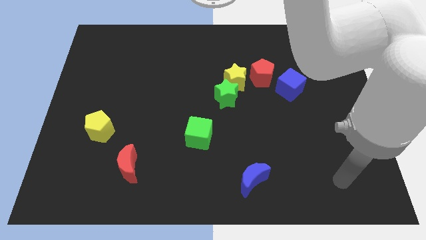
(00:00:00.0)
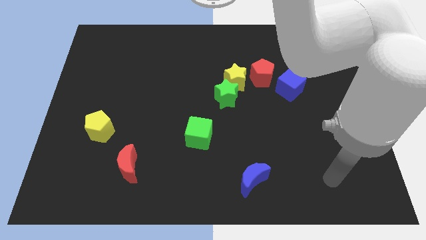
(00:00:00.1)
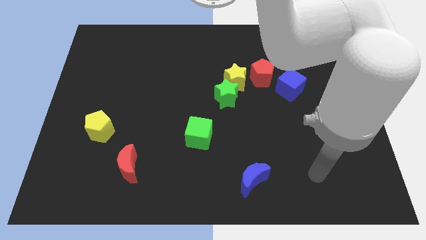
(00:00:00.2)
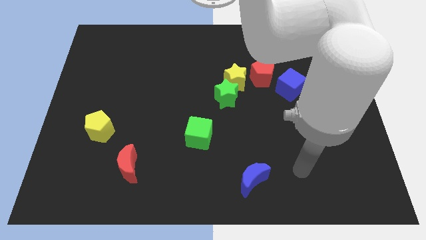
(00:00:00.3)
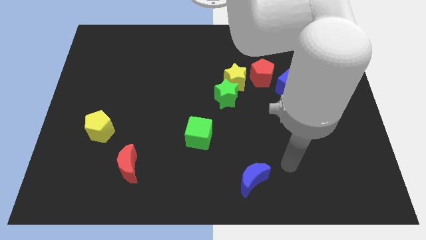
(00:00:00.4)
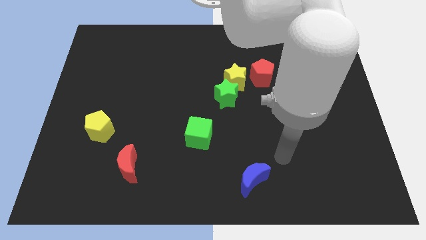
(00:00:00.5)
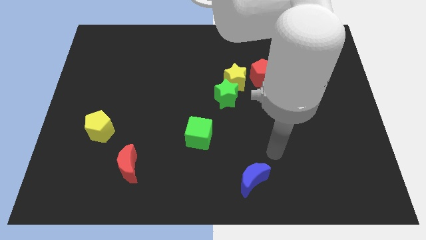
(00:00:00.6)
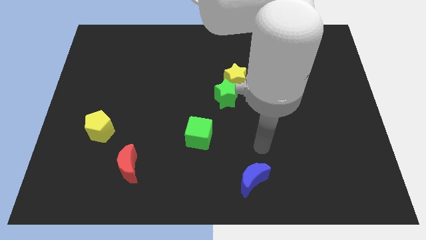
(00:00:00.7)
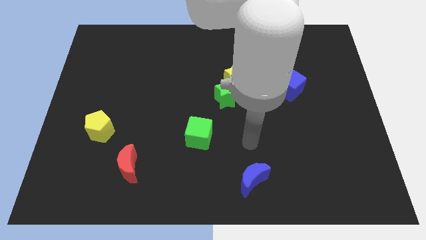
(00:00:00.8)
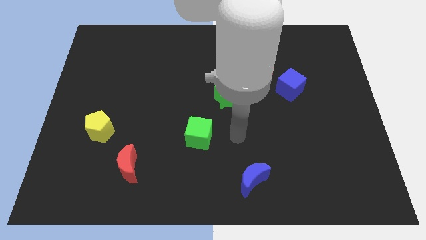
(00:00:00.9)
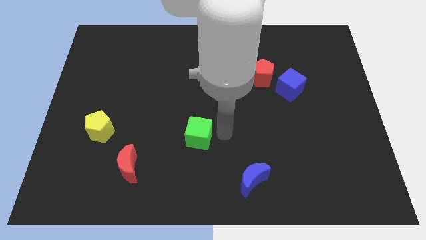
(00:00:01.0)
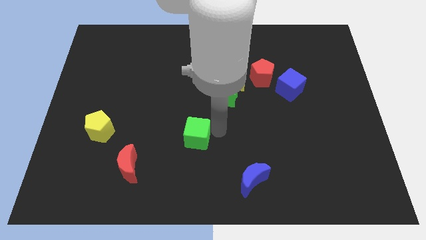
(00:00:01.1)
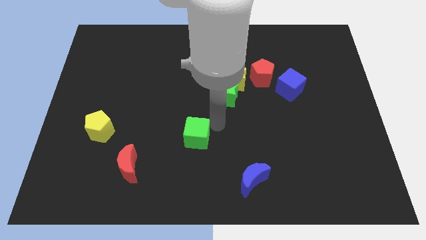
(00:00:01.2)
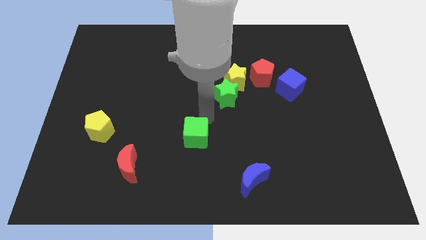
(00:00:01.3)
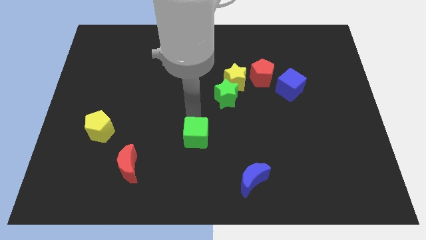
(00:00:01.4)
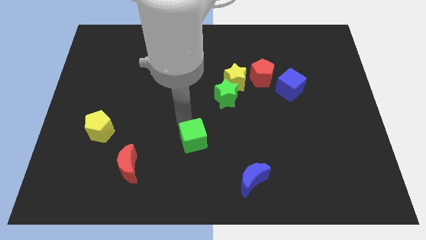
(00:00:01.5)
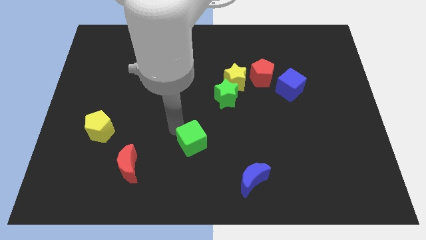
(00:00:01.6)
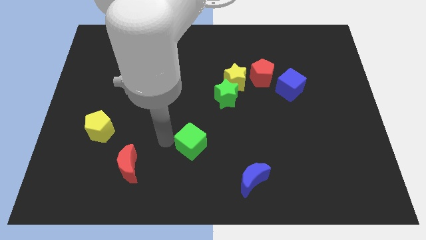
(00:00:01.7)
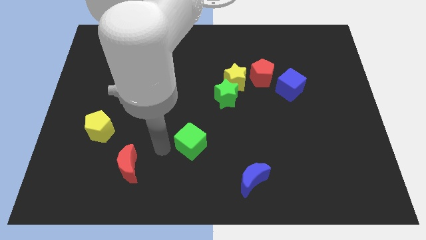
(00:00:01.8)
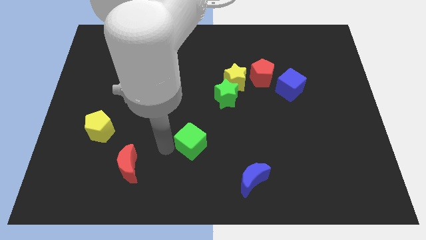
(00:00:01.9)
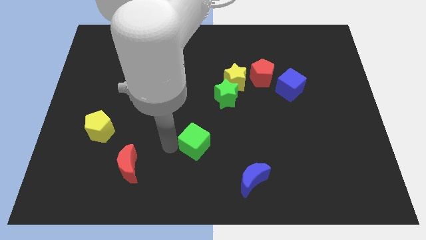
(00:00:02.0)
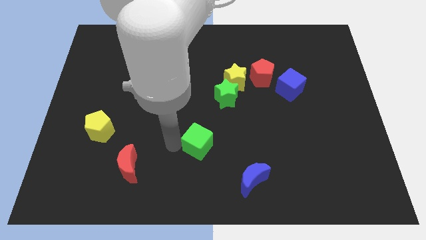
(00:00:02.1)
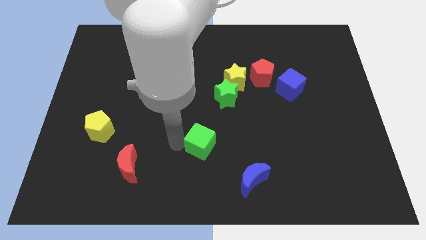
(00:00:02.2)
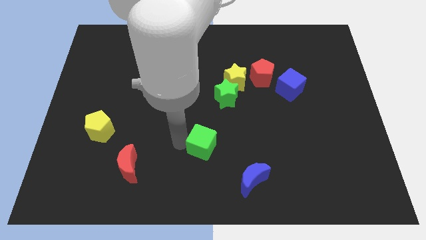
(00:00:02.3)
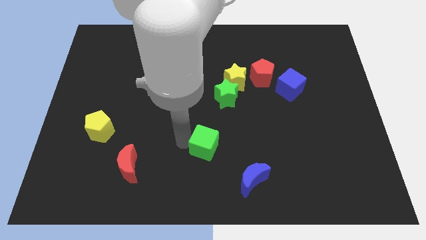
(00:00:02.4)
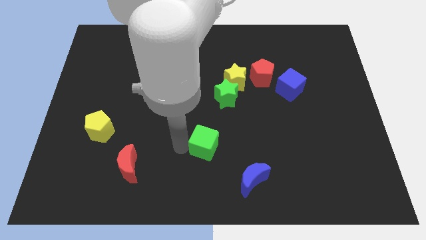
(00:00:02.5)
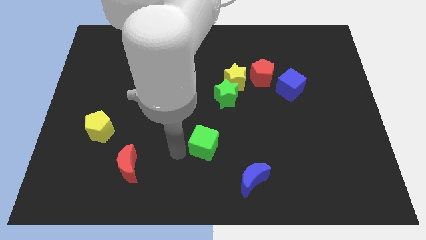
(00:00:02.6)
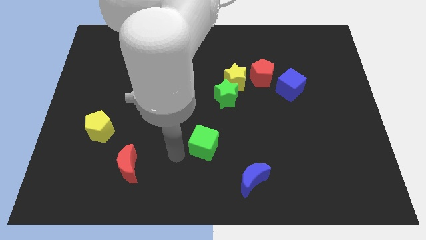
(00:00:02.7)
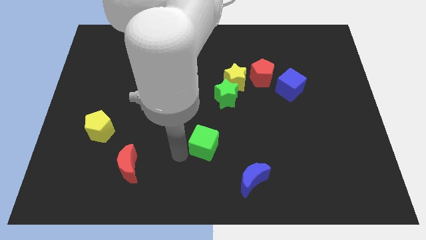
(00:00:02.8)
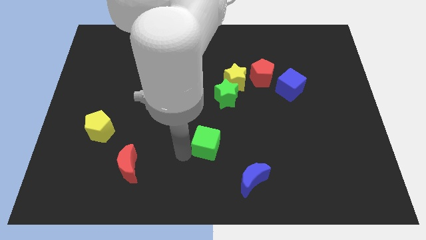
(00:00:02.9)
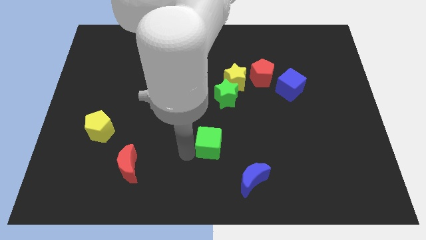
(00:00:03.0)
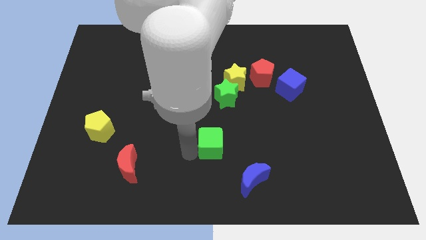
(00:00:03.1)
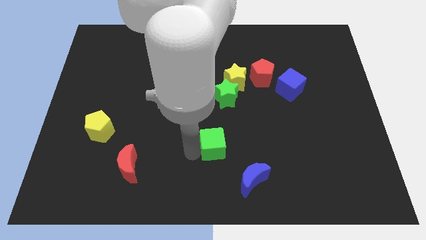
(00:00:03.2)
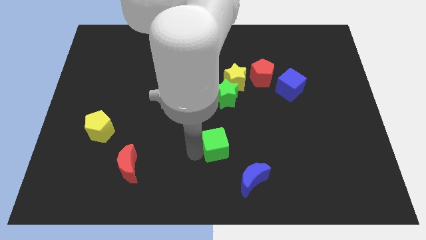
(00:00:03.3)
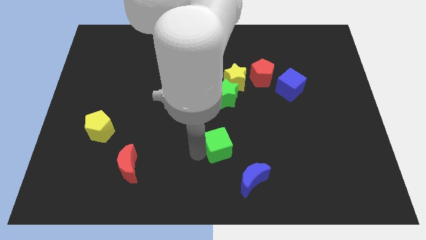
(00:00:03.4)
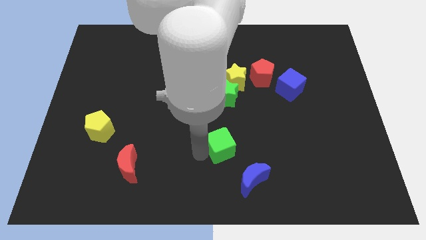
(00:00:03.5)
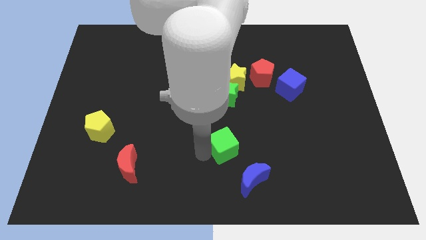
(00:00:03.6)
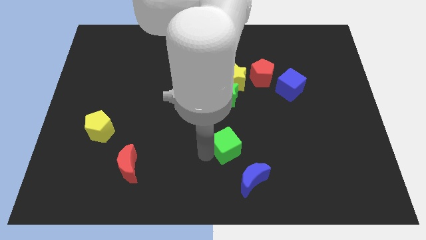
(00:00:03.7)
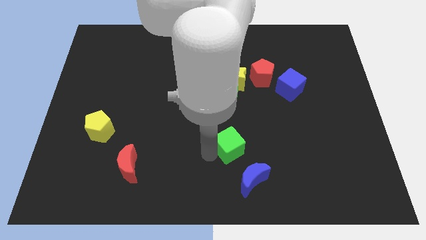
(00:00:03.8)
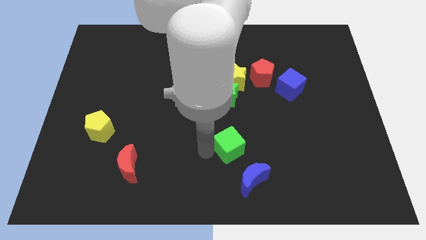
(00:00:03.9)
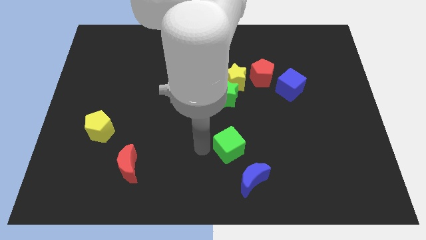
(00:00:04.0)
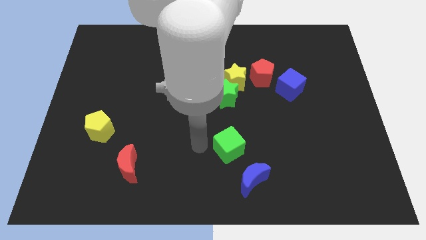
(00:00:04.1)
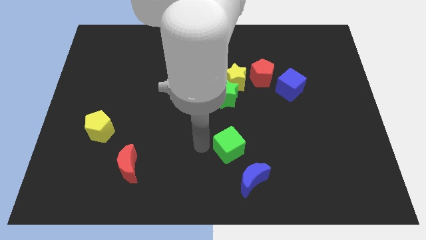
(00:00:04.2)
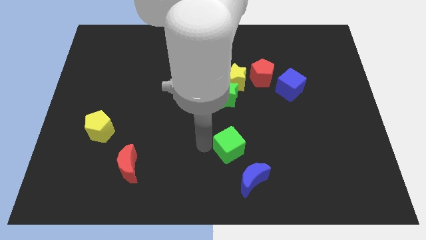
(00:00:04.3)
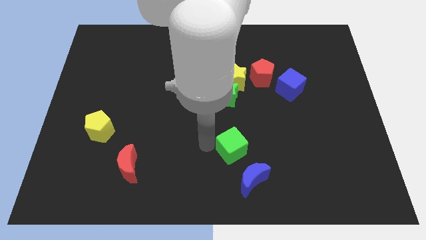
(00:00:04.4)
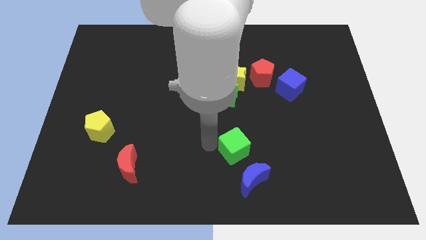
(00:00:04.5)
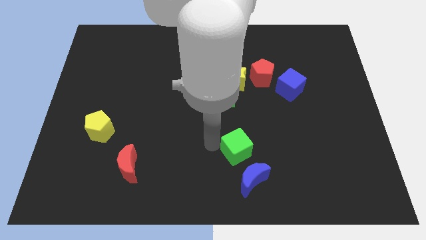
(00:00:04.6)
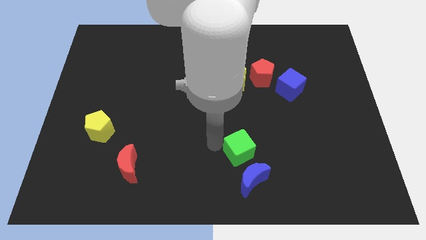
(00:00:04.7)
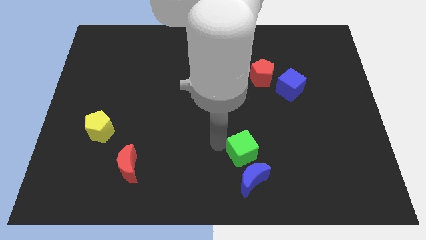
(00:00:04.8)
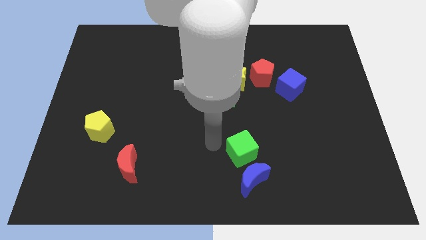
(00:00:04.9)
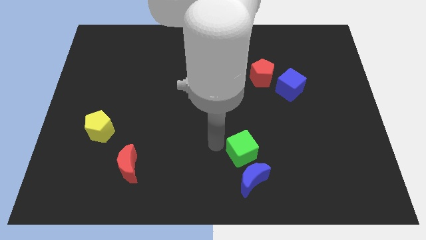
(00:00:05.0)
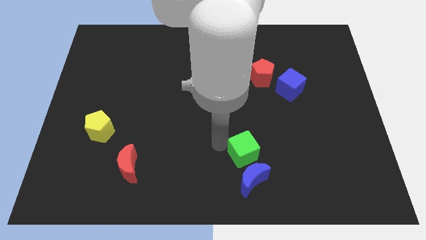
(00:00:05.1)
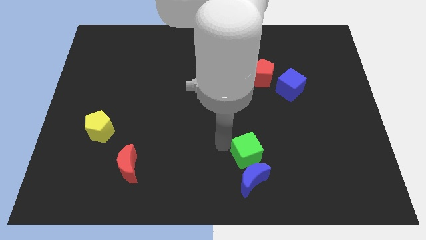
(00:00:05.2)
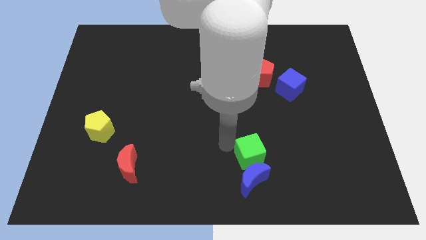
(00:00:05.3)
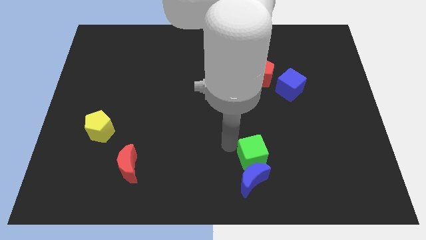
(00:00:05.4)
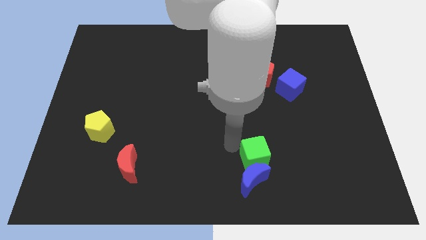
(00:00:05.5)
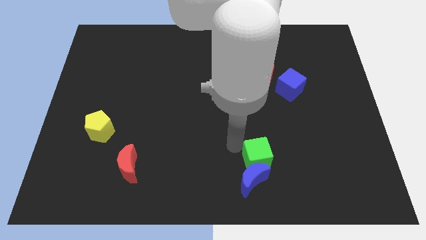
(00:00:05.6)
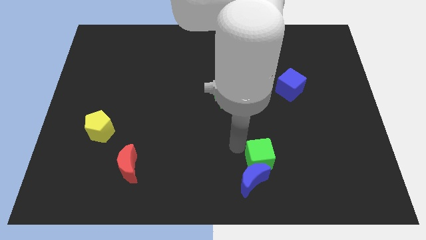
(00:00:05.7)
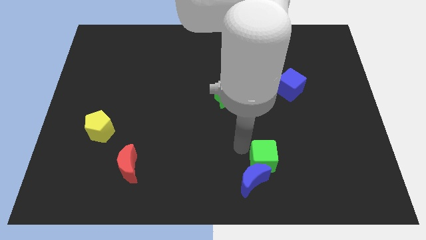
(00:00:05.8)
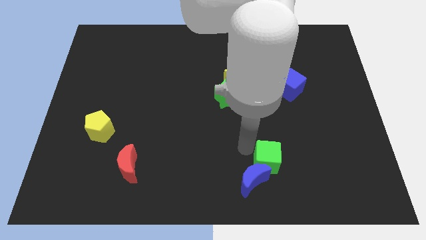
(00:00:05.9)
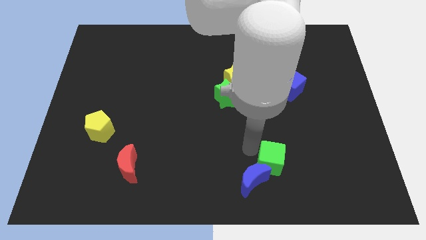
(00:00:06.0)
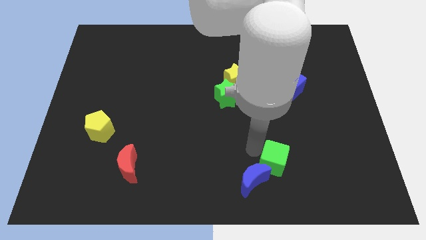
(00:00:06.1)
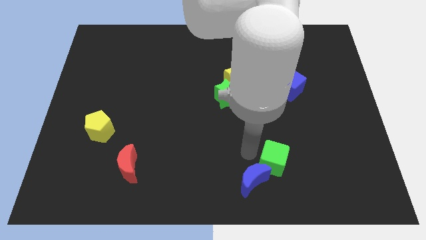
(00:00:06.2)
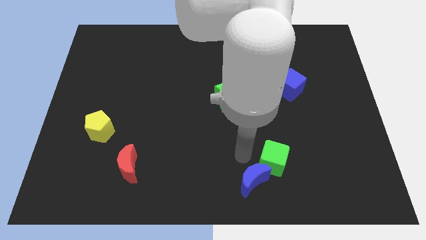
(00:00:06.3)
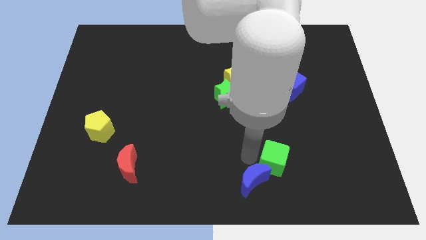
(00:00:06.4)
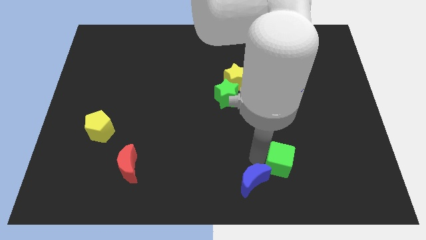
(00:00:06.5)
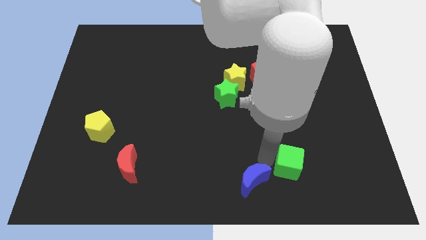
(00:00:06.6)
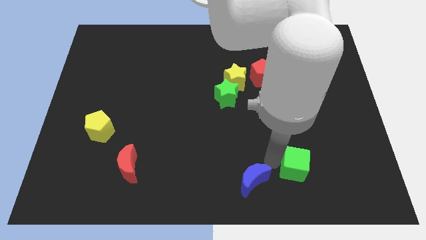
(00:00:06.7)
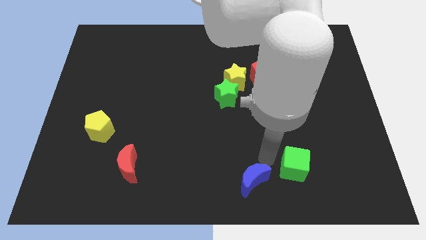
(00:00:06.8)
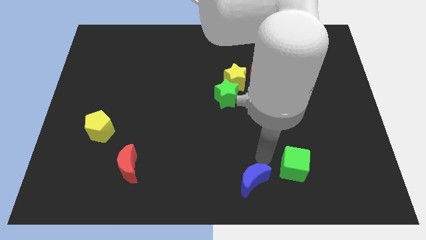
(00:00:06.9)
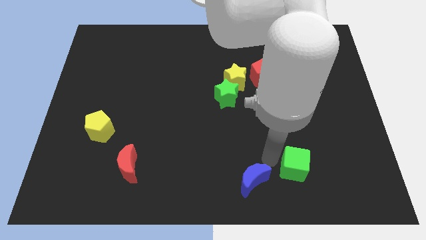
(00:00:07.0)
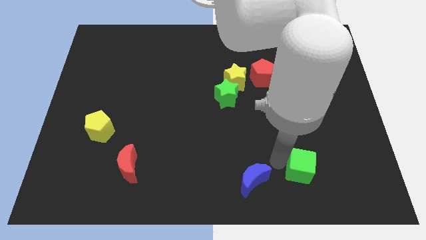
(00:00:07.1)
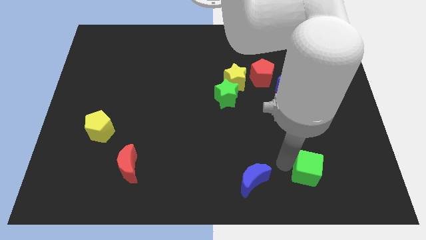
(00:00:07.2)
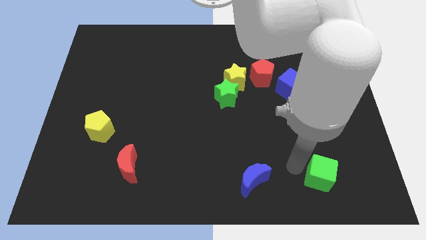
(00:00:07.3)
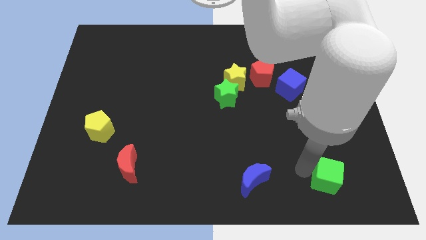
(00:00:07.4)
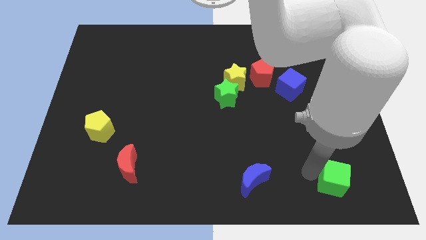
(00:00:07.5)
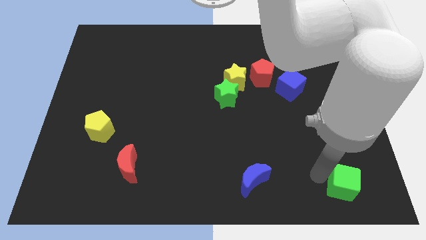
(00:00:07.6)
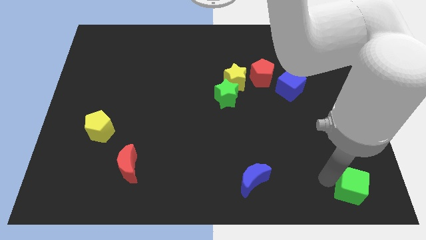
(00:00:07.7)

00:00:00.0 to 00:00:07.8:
move the green cube to the lower right corner
